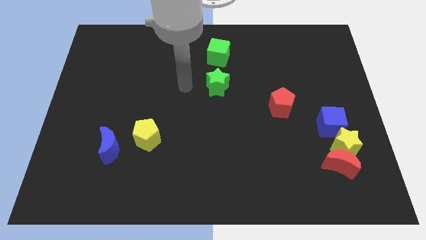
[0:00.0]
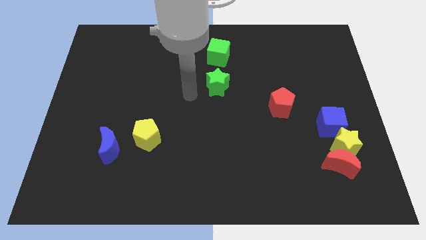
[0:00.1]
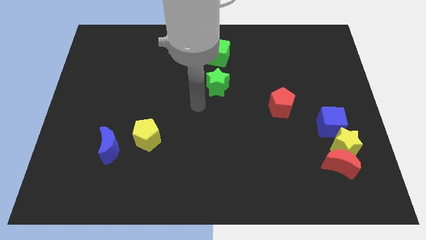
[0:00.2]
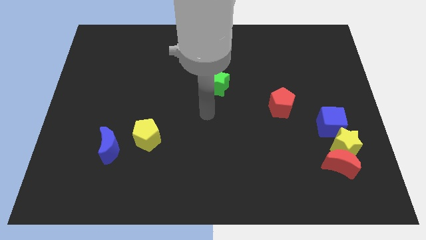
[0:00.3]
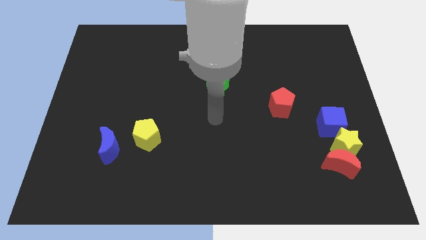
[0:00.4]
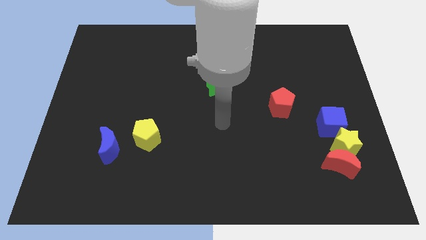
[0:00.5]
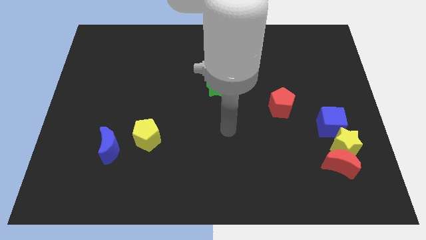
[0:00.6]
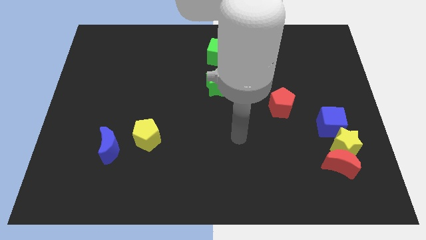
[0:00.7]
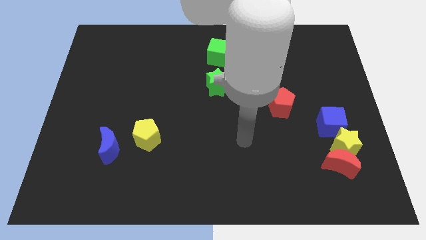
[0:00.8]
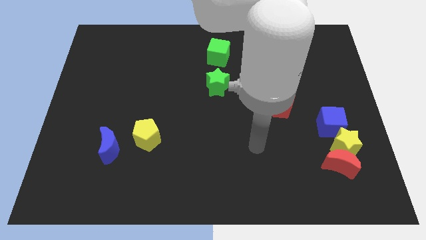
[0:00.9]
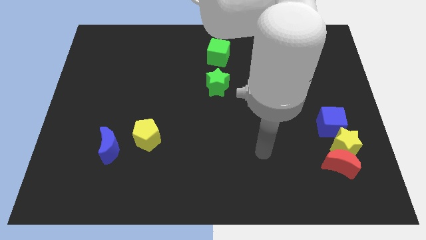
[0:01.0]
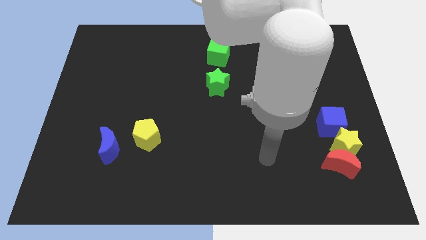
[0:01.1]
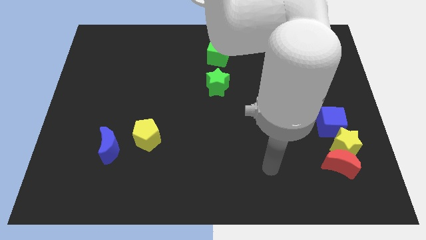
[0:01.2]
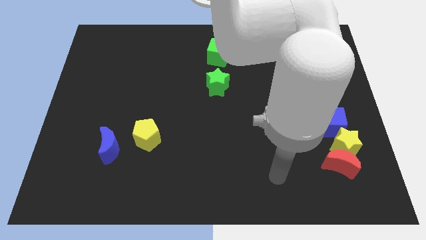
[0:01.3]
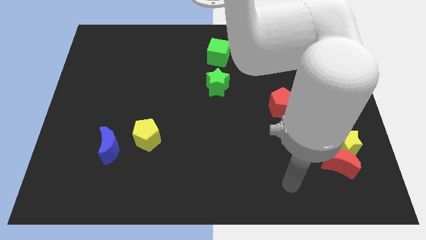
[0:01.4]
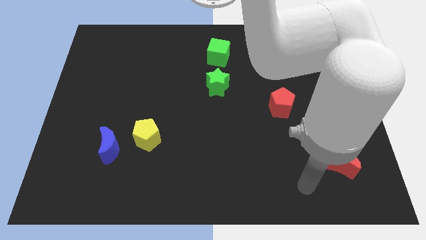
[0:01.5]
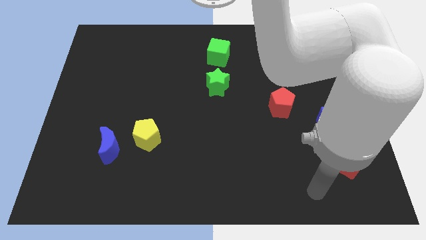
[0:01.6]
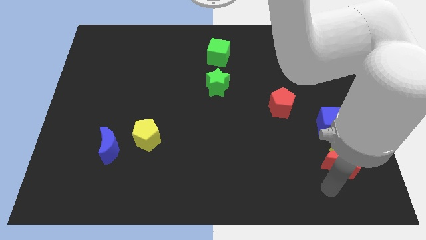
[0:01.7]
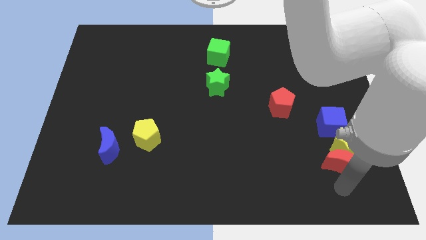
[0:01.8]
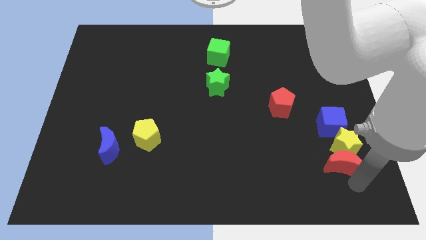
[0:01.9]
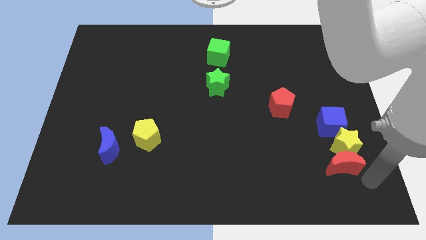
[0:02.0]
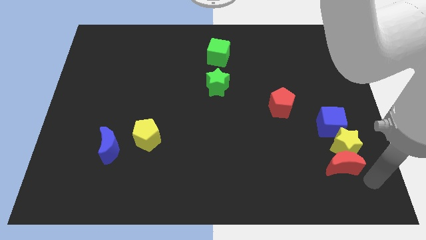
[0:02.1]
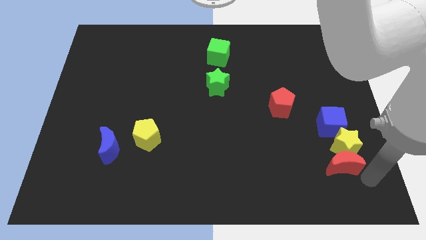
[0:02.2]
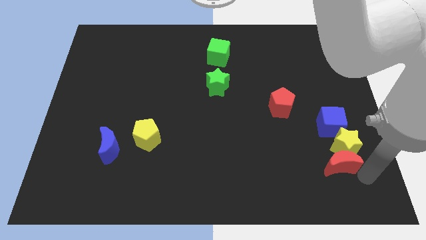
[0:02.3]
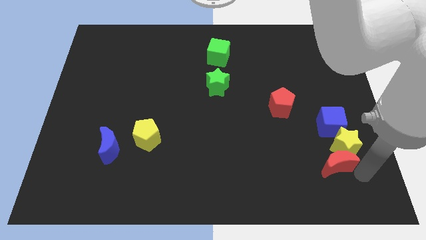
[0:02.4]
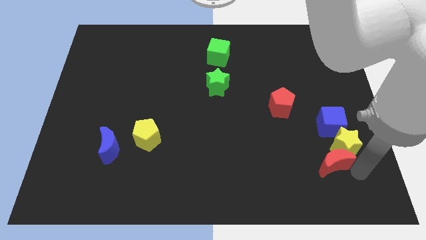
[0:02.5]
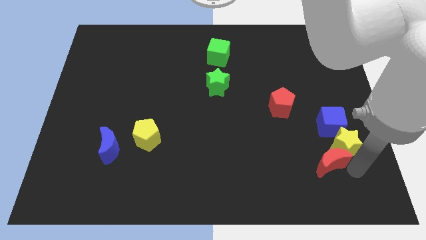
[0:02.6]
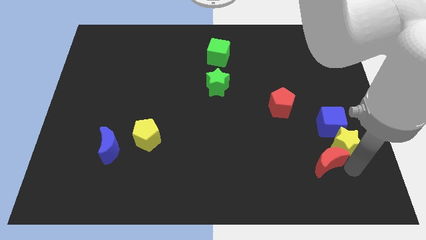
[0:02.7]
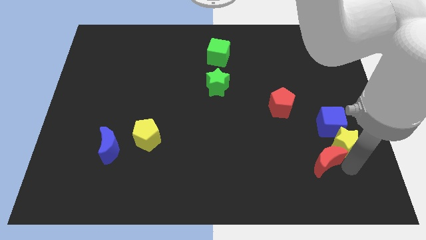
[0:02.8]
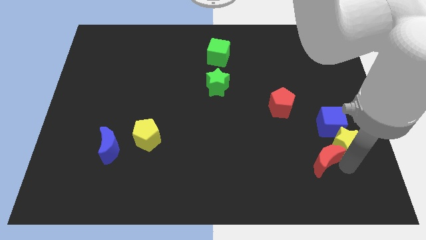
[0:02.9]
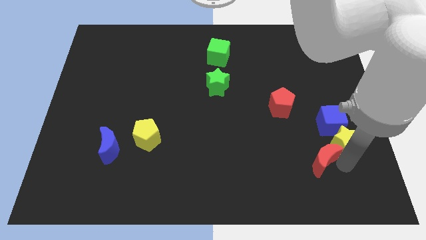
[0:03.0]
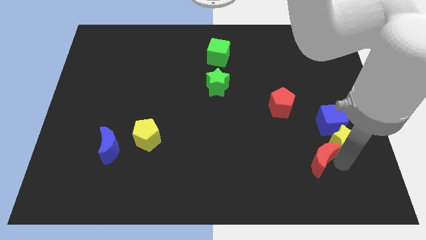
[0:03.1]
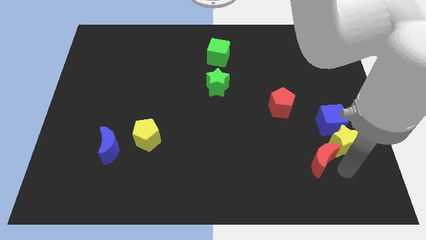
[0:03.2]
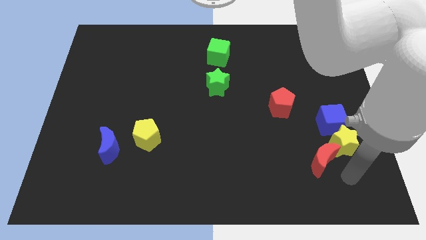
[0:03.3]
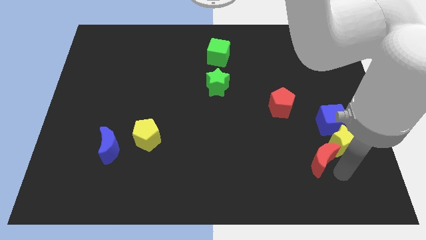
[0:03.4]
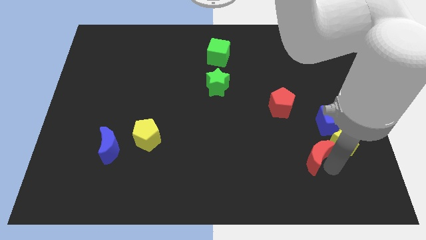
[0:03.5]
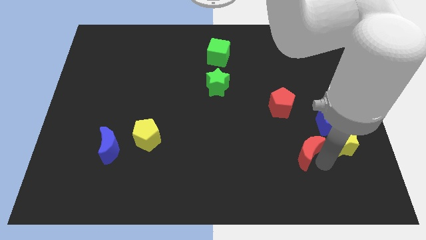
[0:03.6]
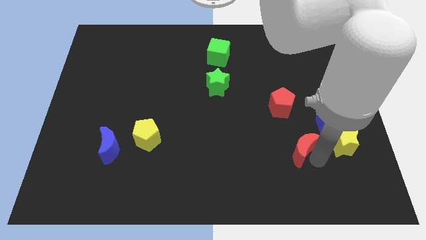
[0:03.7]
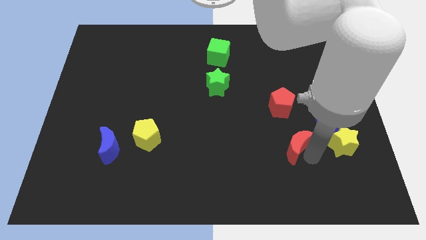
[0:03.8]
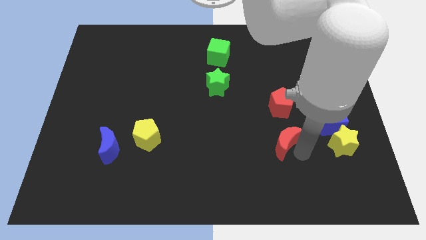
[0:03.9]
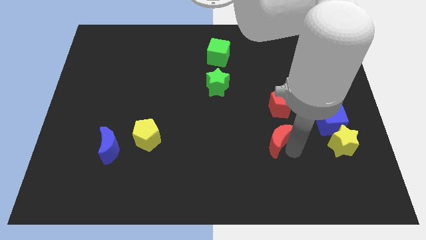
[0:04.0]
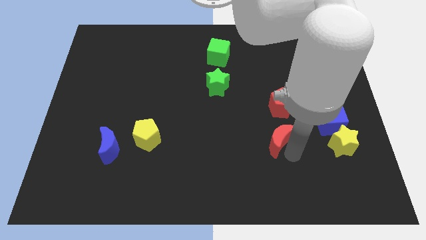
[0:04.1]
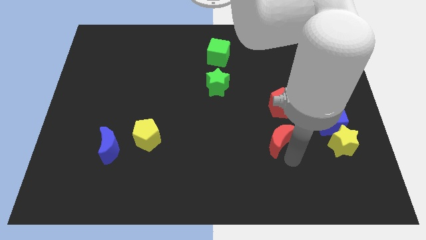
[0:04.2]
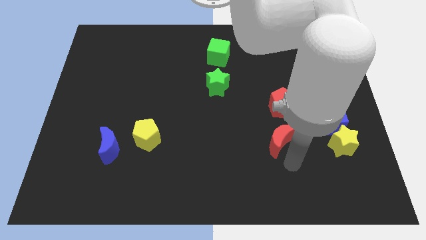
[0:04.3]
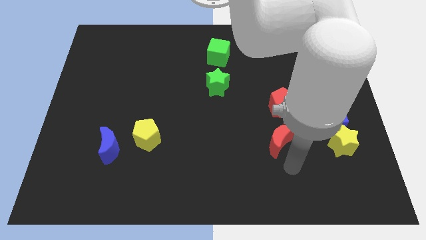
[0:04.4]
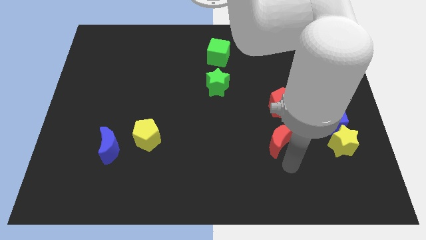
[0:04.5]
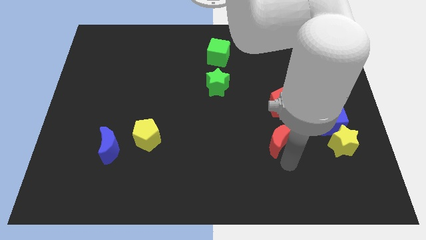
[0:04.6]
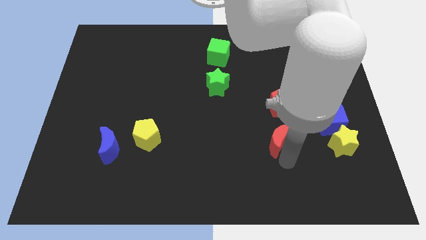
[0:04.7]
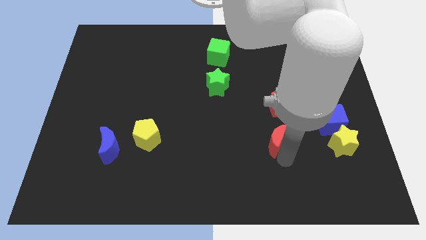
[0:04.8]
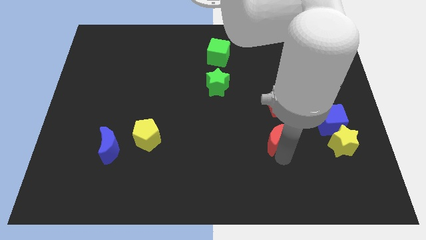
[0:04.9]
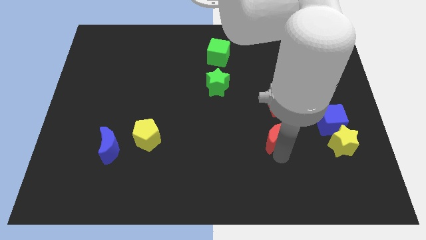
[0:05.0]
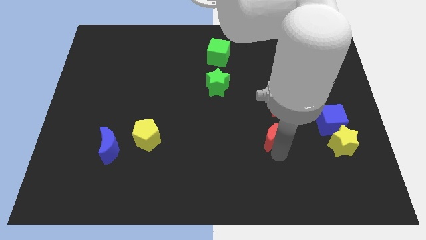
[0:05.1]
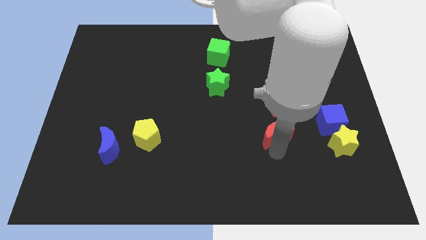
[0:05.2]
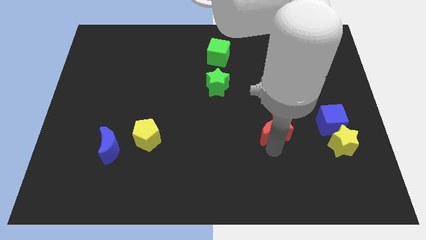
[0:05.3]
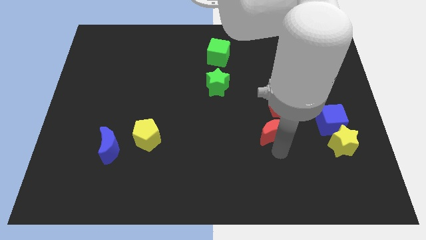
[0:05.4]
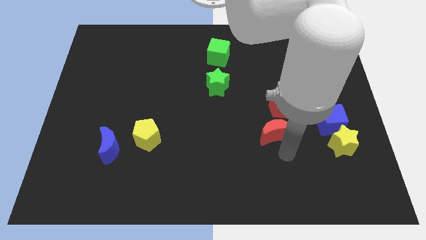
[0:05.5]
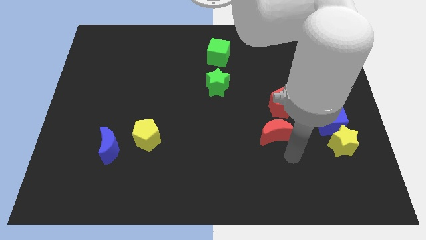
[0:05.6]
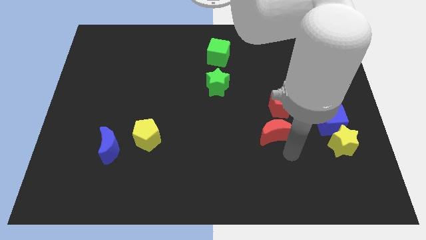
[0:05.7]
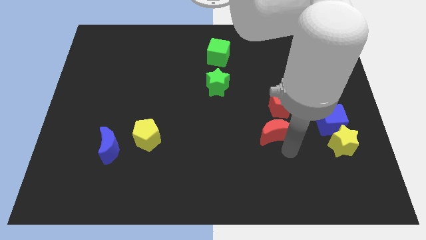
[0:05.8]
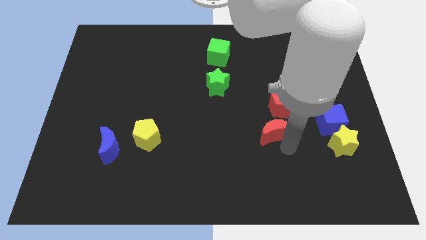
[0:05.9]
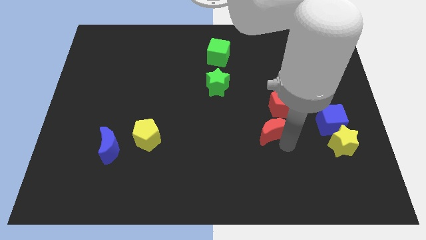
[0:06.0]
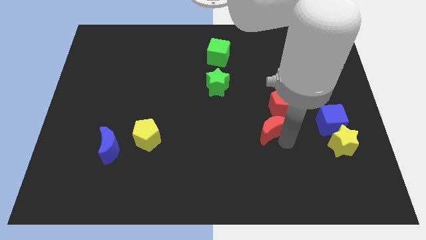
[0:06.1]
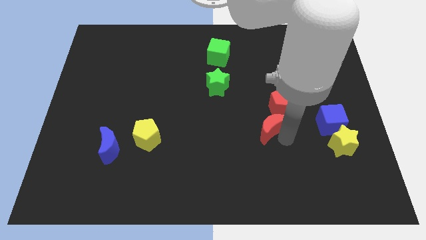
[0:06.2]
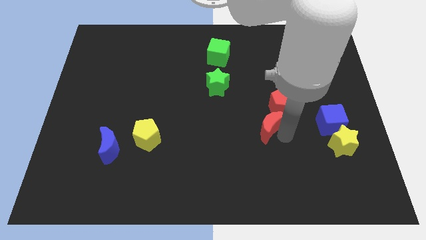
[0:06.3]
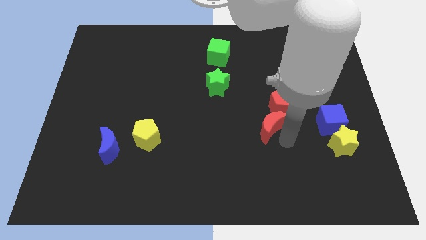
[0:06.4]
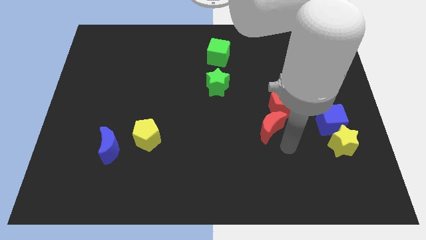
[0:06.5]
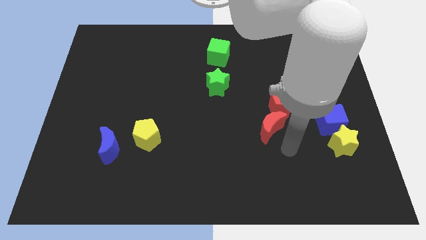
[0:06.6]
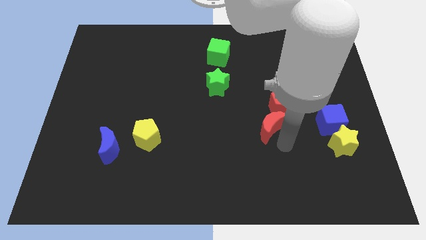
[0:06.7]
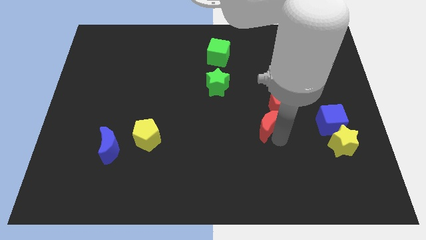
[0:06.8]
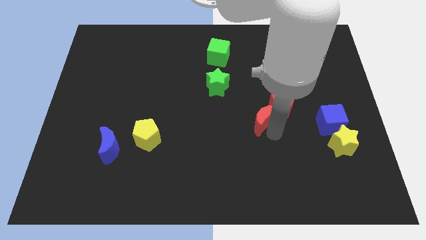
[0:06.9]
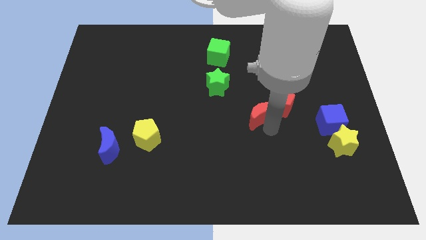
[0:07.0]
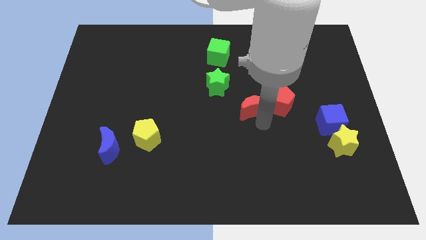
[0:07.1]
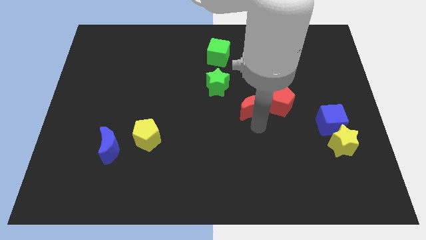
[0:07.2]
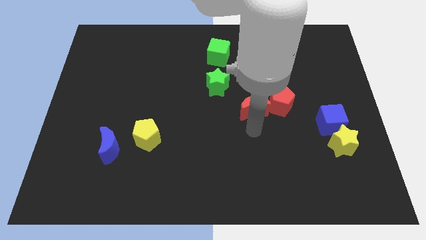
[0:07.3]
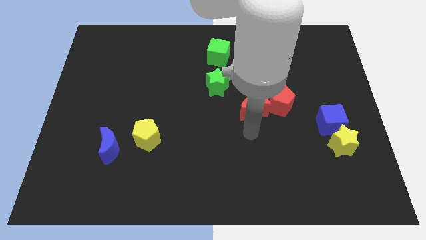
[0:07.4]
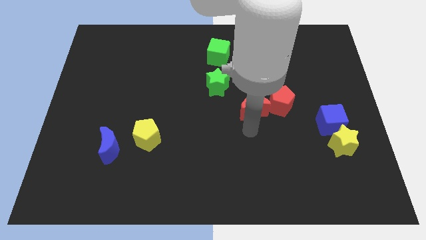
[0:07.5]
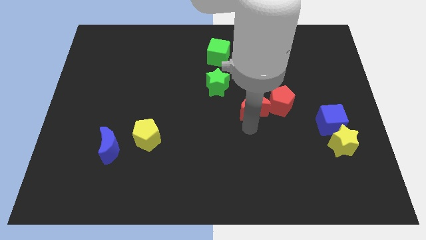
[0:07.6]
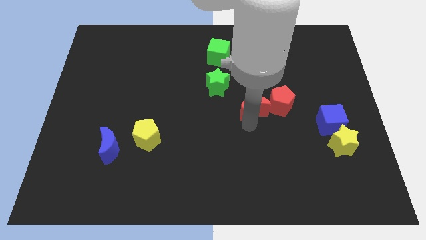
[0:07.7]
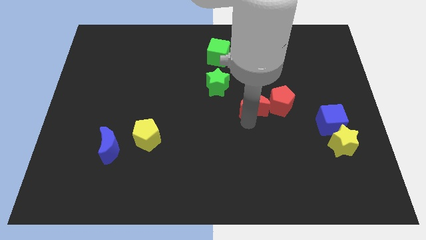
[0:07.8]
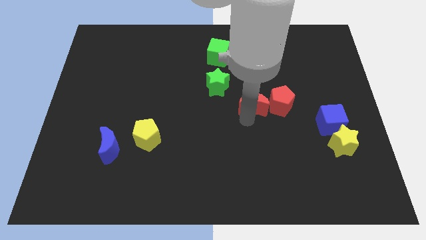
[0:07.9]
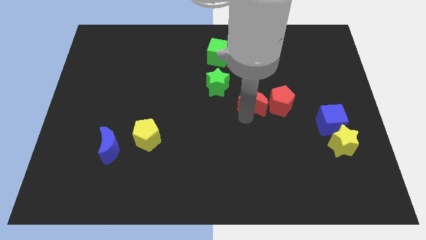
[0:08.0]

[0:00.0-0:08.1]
slide the red moon diagonally up and to the left of the red pentagon
